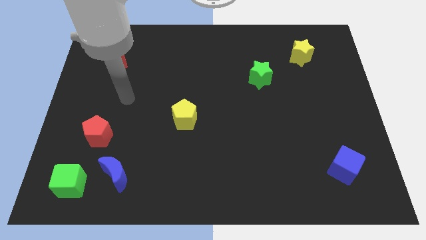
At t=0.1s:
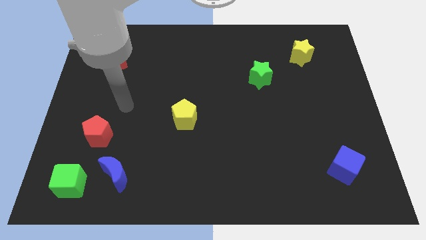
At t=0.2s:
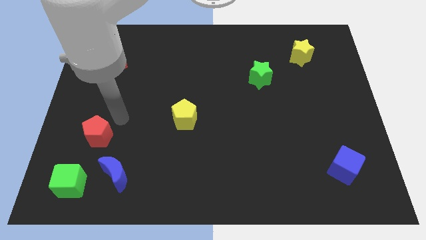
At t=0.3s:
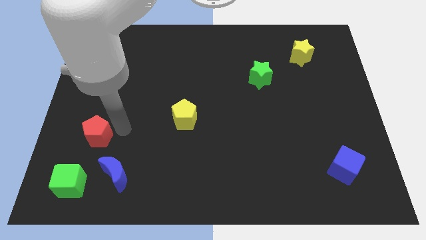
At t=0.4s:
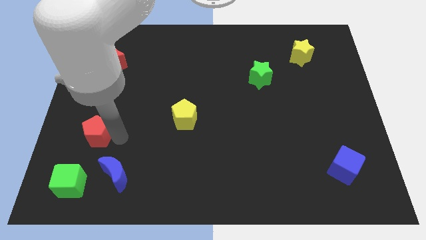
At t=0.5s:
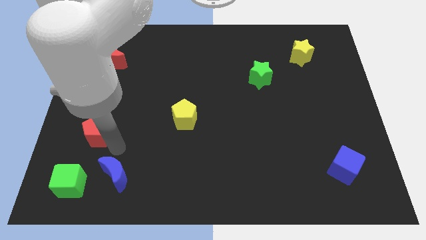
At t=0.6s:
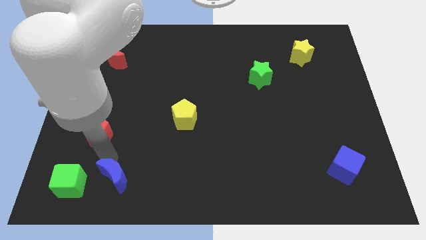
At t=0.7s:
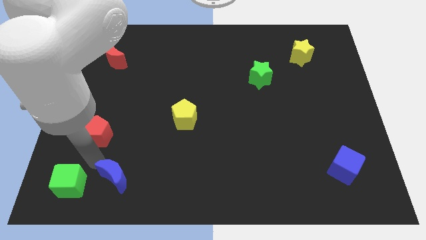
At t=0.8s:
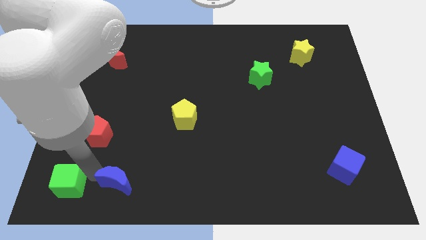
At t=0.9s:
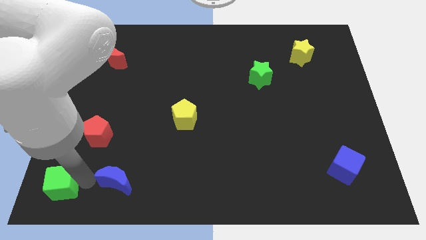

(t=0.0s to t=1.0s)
separate the blue moon from the green cube

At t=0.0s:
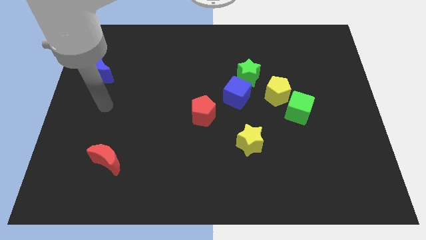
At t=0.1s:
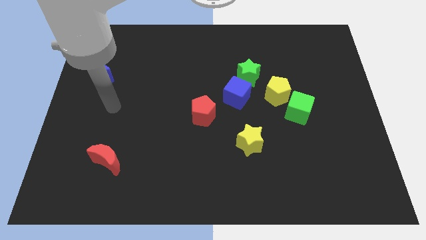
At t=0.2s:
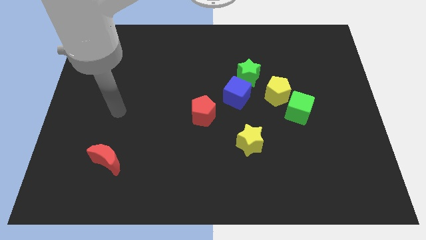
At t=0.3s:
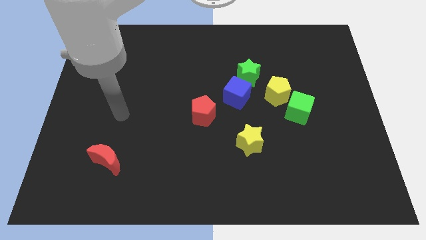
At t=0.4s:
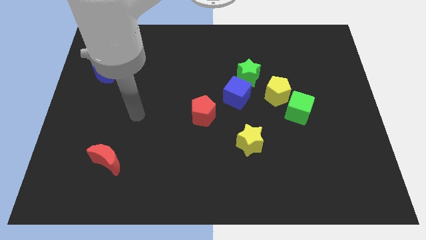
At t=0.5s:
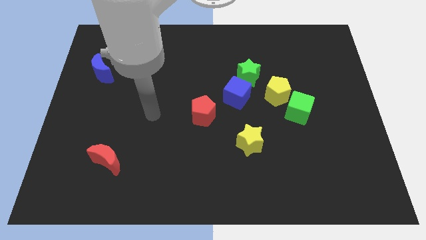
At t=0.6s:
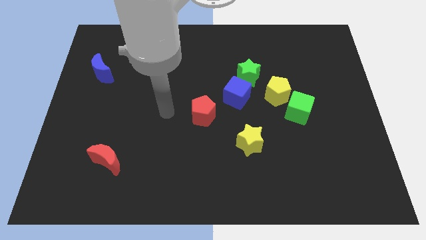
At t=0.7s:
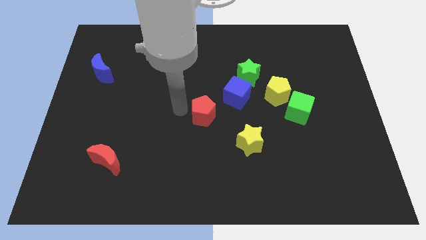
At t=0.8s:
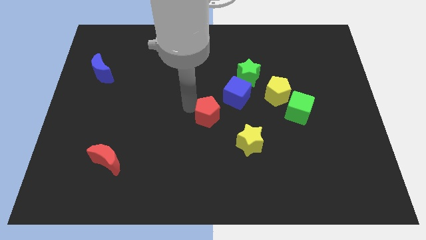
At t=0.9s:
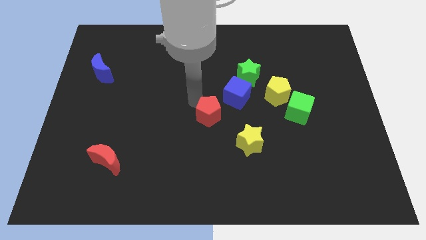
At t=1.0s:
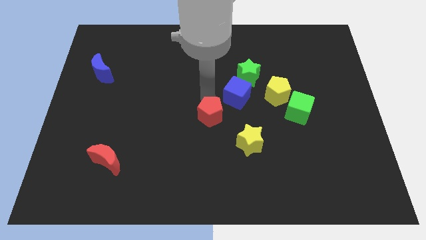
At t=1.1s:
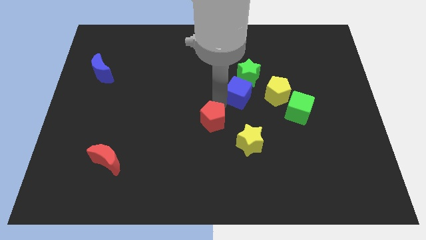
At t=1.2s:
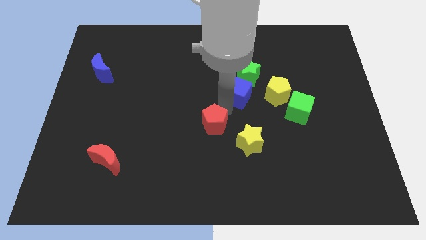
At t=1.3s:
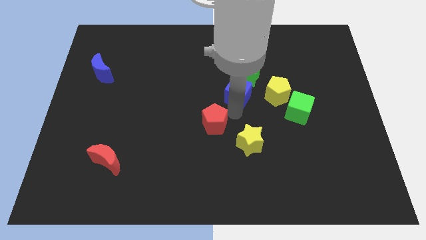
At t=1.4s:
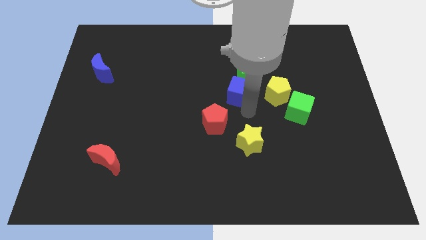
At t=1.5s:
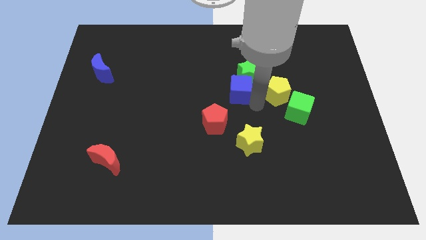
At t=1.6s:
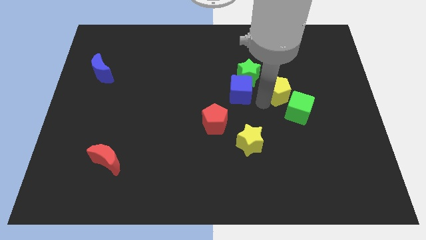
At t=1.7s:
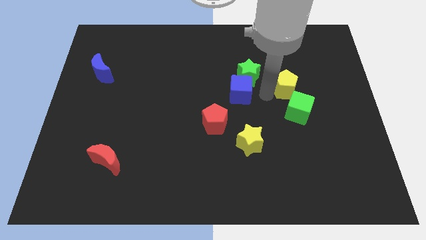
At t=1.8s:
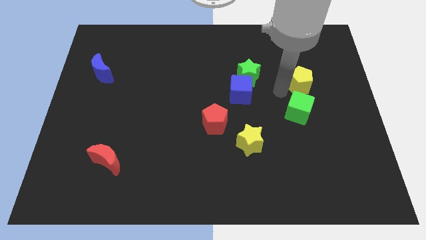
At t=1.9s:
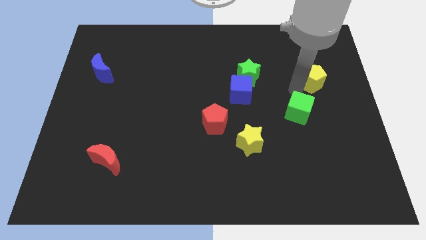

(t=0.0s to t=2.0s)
pull the green cube apart from the yellow pentagon

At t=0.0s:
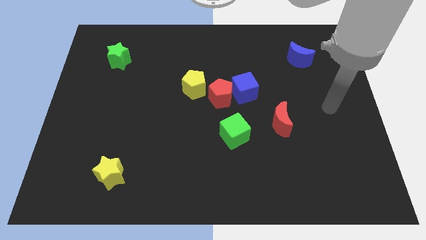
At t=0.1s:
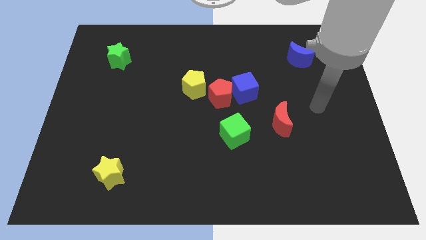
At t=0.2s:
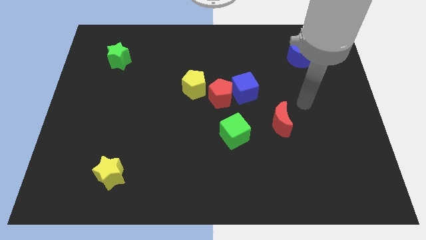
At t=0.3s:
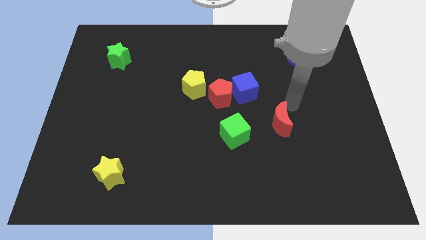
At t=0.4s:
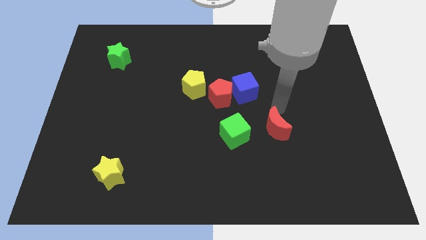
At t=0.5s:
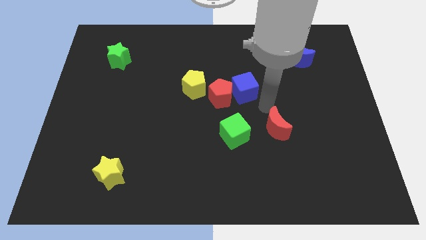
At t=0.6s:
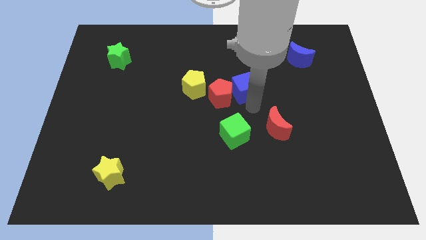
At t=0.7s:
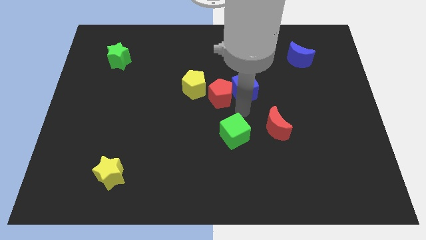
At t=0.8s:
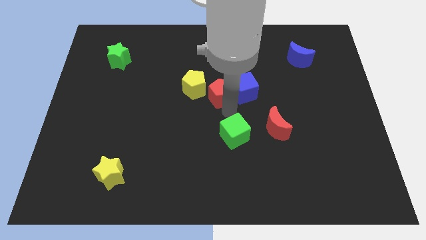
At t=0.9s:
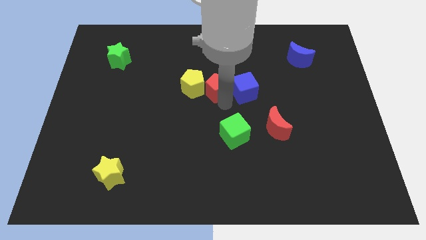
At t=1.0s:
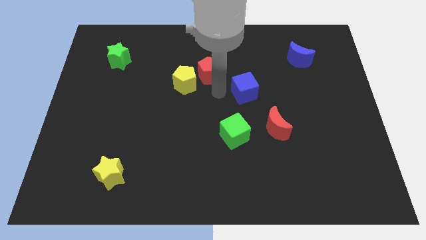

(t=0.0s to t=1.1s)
separate the blue cube from the red pentagon

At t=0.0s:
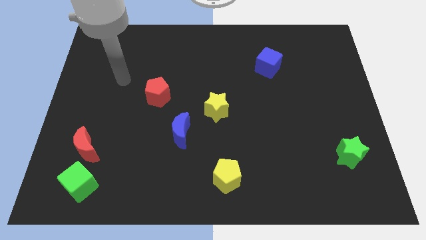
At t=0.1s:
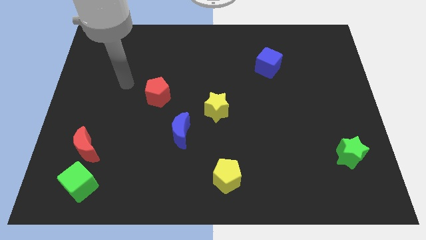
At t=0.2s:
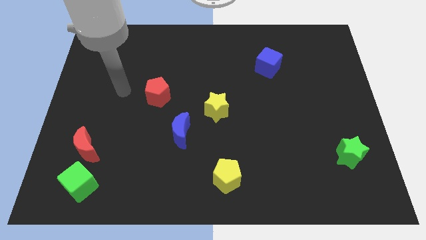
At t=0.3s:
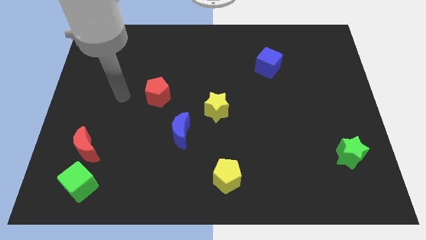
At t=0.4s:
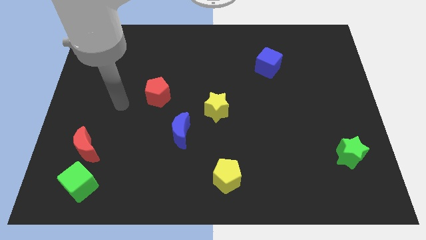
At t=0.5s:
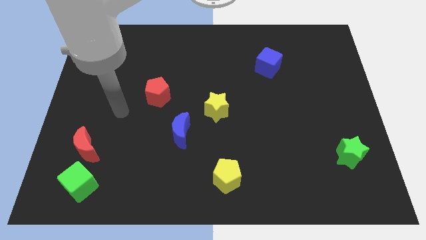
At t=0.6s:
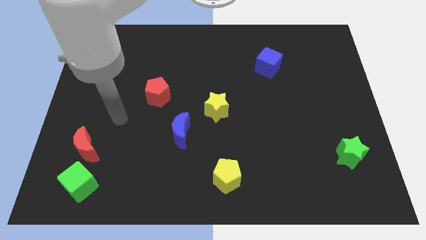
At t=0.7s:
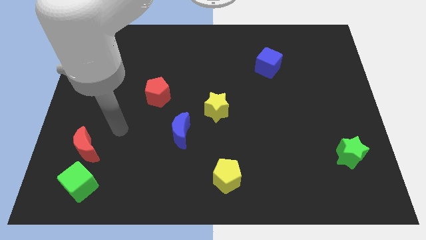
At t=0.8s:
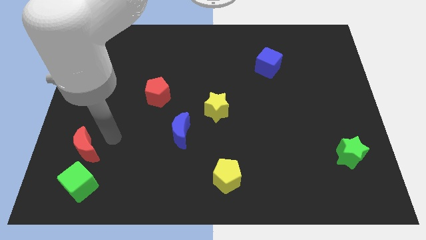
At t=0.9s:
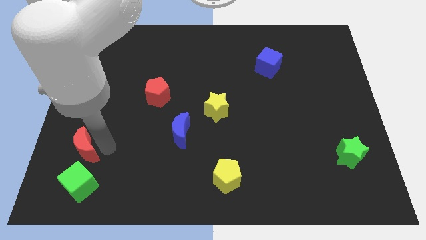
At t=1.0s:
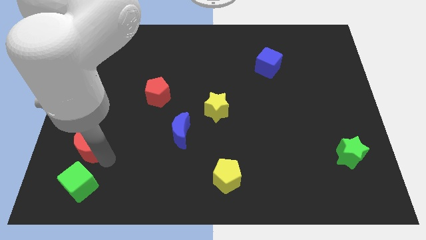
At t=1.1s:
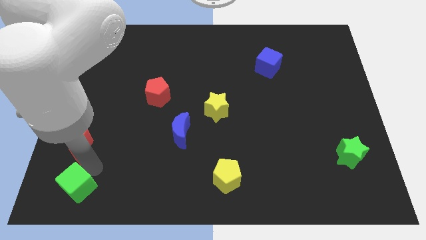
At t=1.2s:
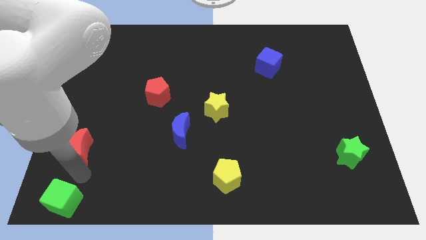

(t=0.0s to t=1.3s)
pull the red moon apart from the green cube

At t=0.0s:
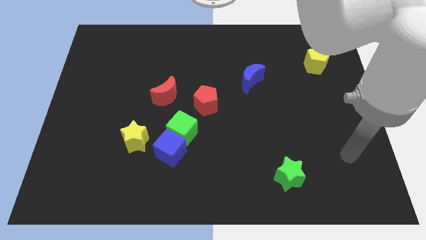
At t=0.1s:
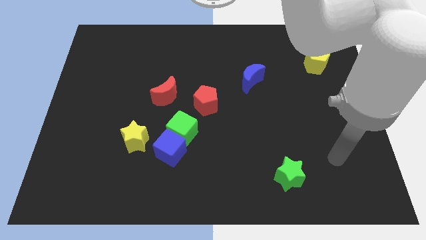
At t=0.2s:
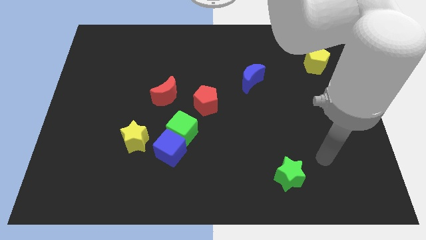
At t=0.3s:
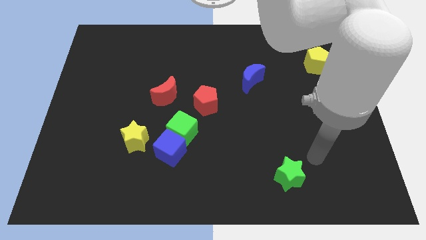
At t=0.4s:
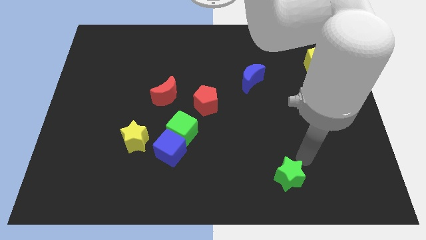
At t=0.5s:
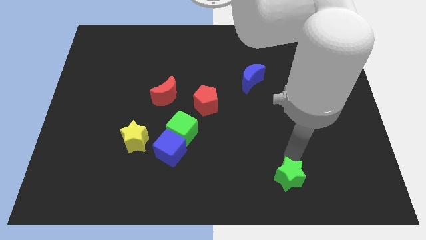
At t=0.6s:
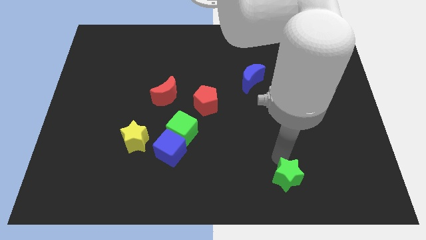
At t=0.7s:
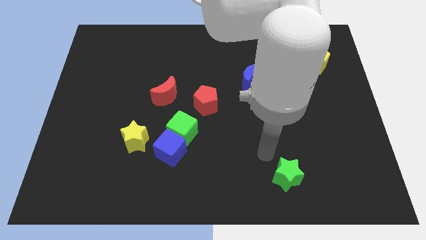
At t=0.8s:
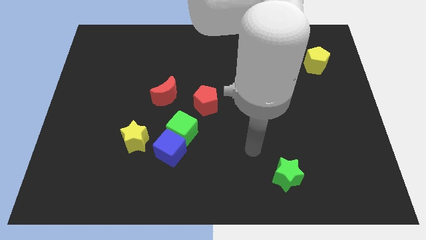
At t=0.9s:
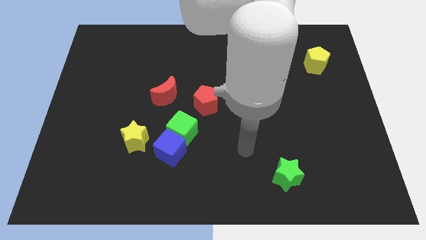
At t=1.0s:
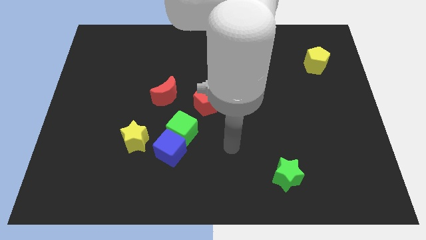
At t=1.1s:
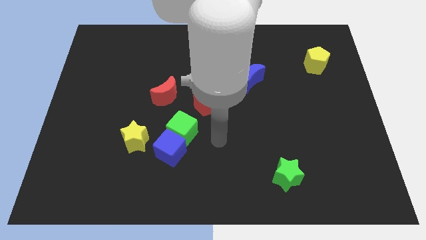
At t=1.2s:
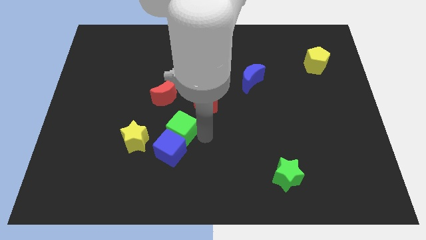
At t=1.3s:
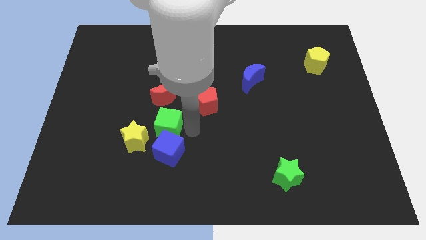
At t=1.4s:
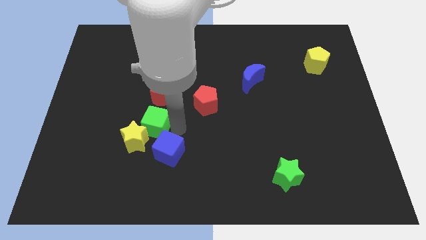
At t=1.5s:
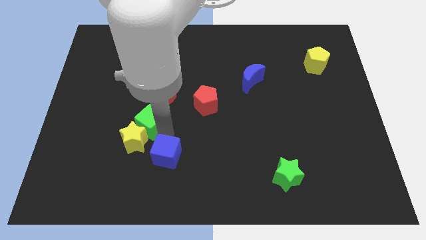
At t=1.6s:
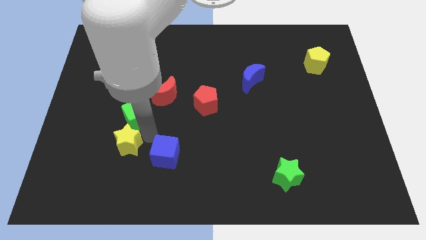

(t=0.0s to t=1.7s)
move the blue cube away from the green cube and yellow star

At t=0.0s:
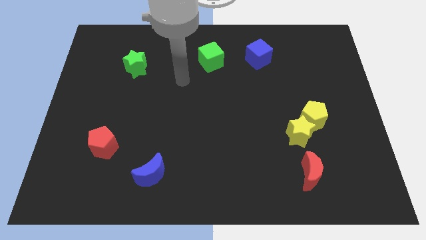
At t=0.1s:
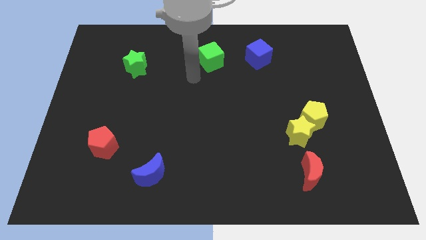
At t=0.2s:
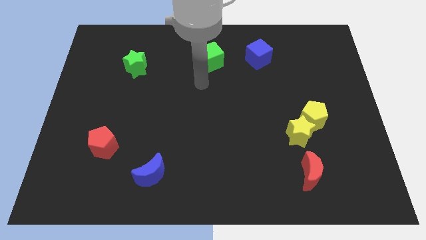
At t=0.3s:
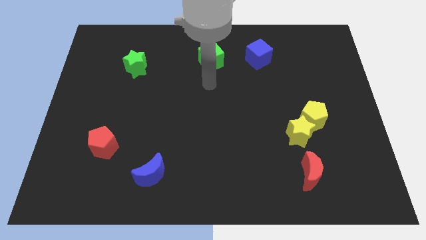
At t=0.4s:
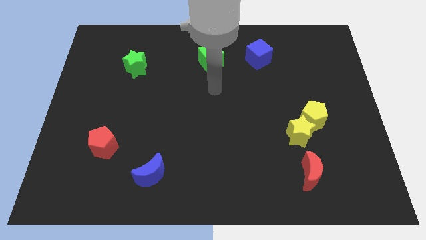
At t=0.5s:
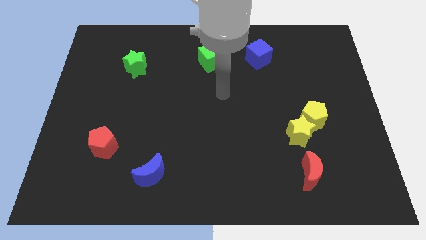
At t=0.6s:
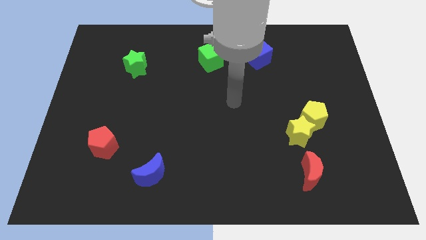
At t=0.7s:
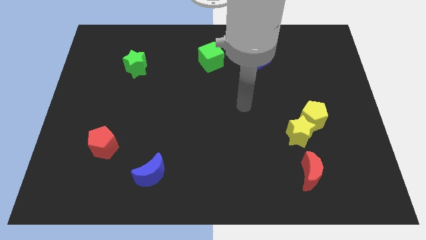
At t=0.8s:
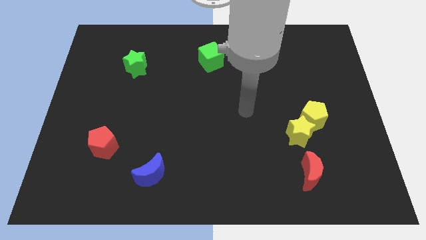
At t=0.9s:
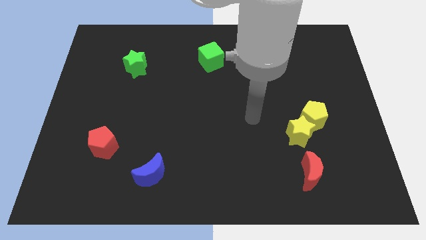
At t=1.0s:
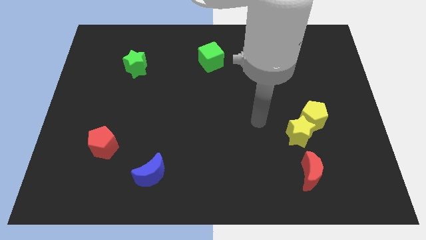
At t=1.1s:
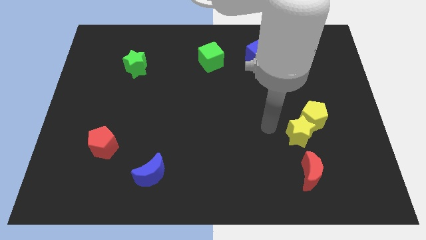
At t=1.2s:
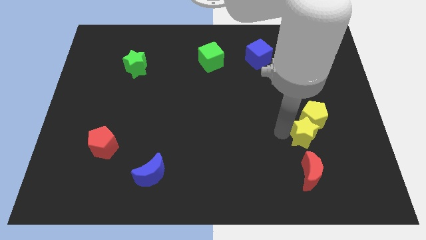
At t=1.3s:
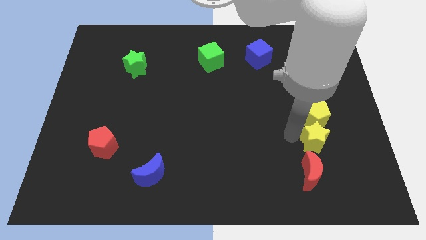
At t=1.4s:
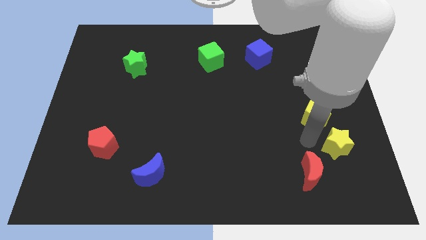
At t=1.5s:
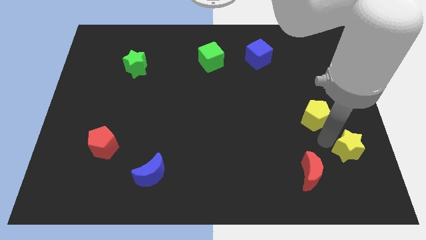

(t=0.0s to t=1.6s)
pull the yellow pentagon apart from the yellow star

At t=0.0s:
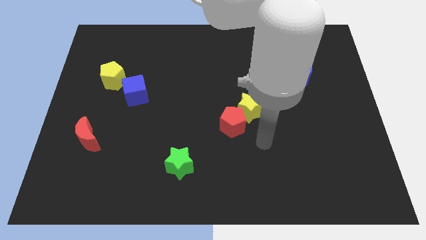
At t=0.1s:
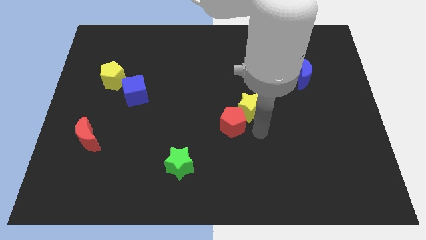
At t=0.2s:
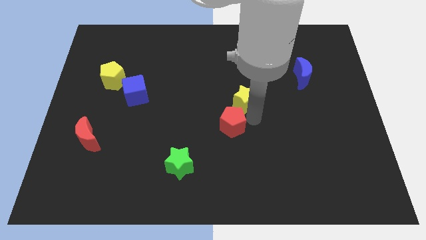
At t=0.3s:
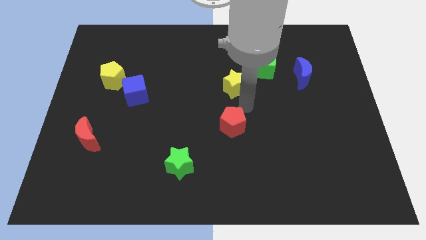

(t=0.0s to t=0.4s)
pull the red pentagon apart from the yellow star

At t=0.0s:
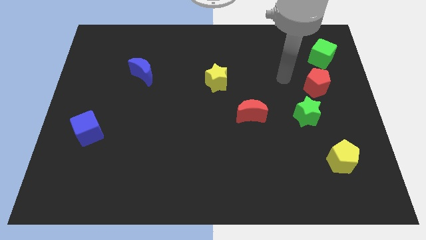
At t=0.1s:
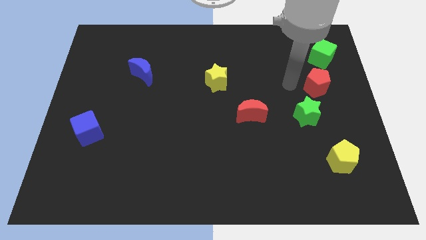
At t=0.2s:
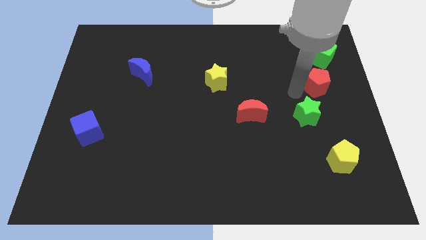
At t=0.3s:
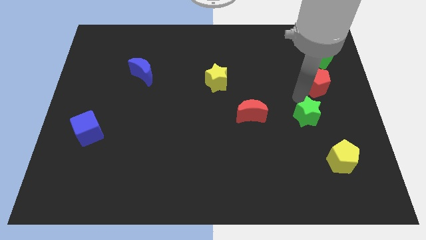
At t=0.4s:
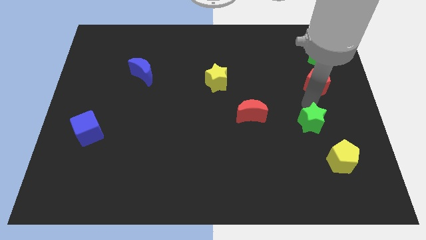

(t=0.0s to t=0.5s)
pull the red pentagon apart from the green star
